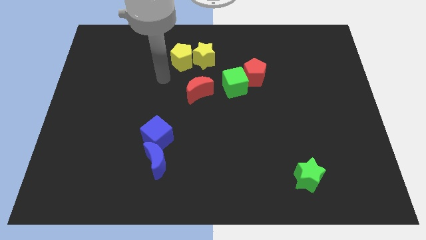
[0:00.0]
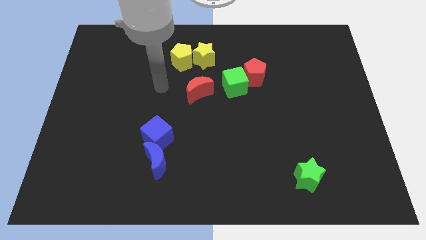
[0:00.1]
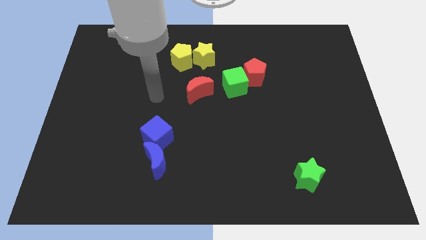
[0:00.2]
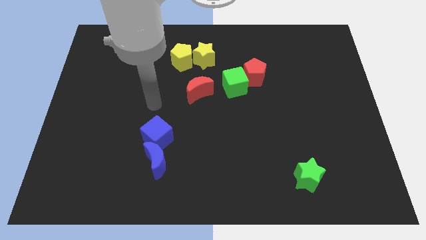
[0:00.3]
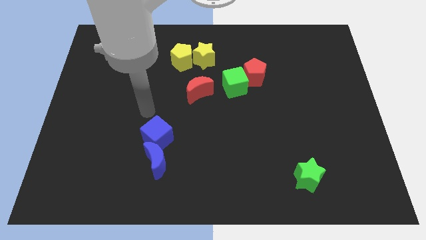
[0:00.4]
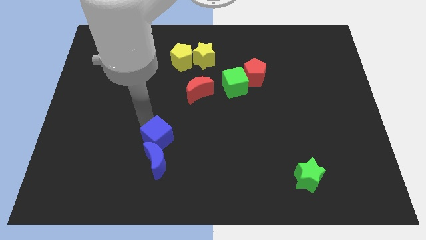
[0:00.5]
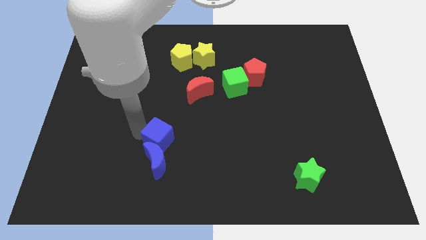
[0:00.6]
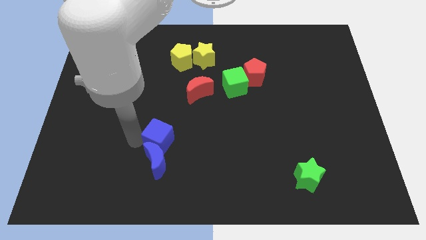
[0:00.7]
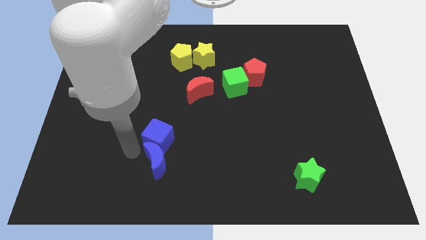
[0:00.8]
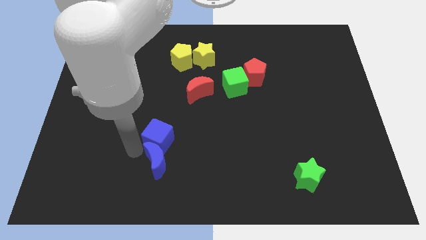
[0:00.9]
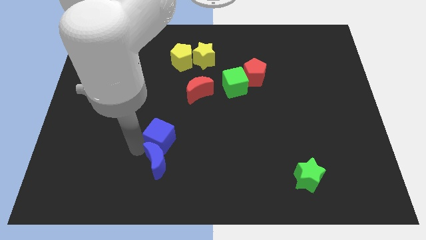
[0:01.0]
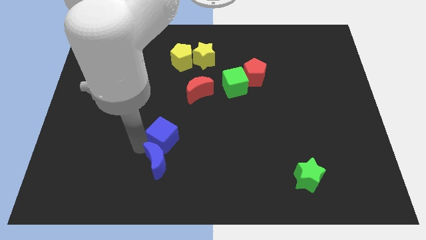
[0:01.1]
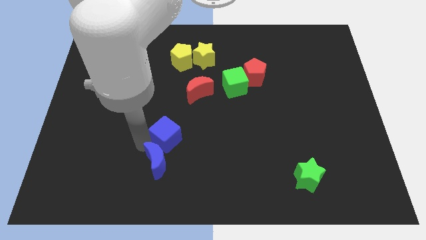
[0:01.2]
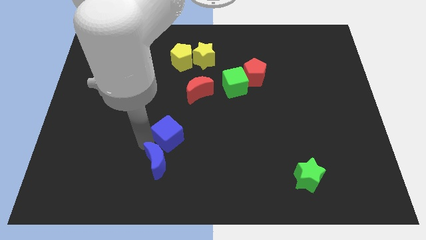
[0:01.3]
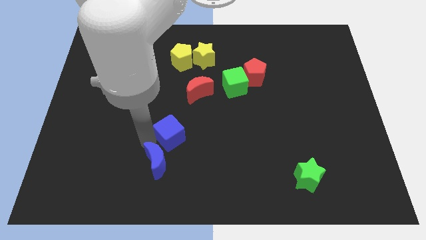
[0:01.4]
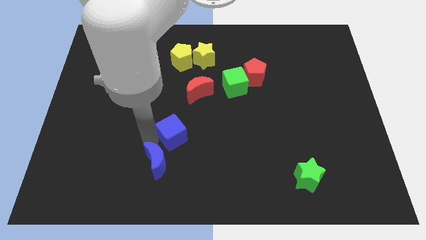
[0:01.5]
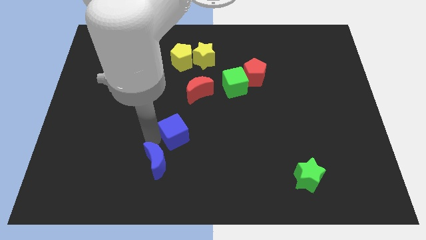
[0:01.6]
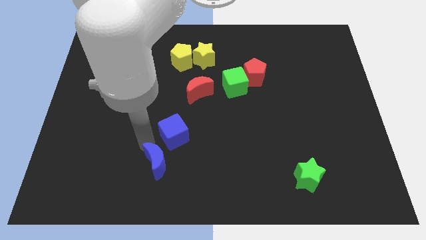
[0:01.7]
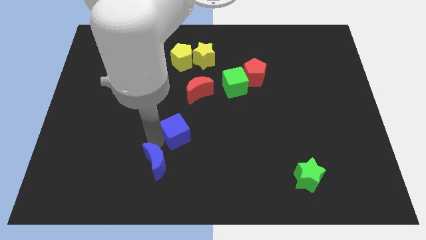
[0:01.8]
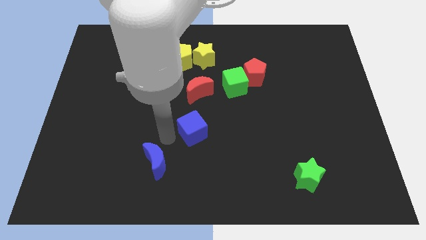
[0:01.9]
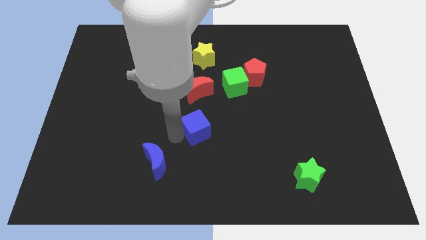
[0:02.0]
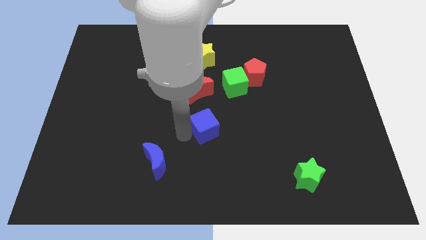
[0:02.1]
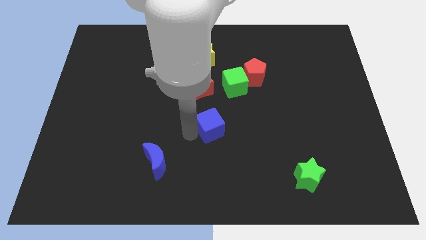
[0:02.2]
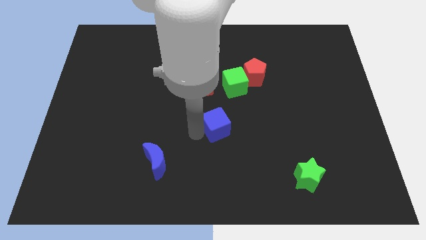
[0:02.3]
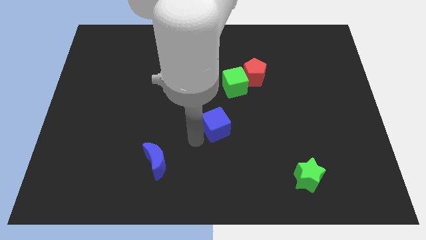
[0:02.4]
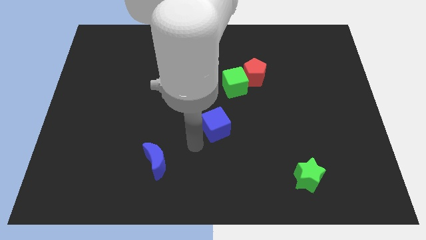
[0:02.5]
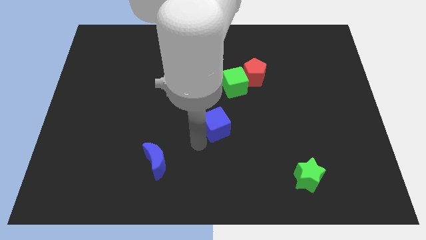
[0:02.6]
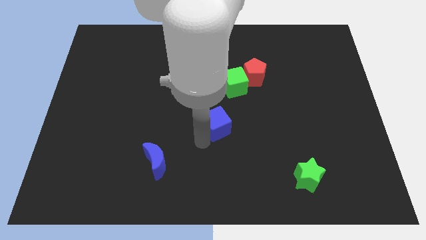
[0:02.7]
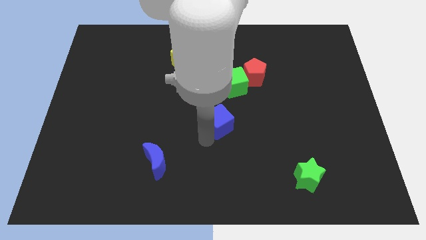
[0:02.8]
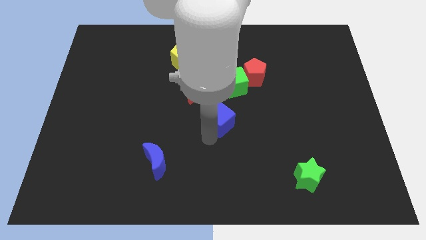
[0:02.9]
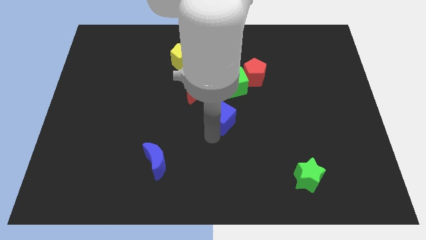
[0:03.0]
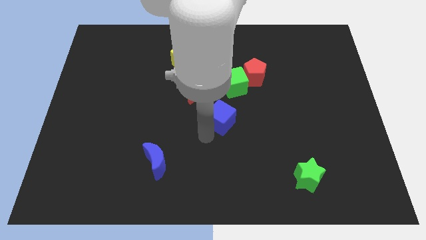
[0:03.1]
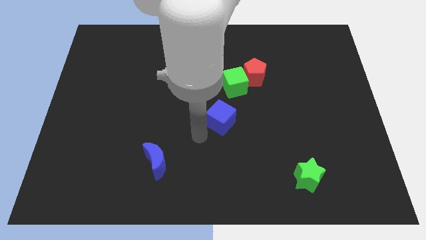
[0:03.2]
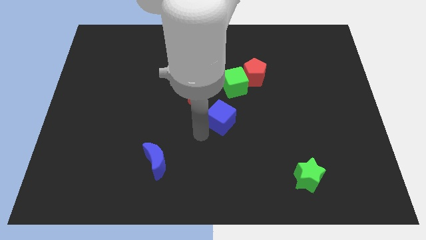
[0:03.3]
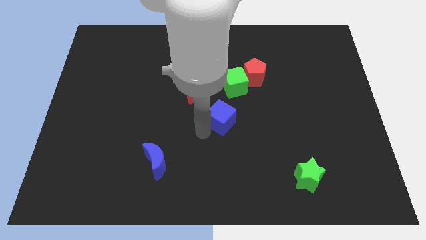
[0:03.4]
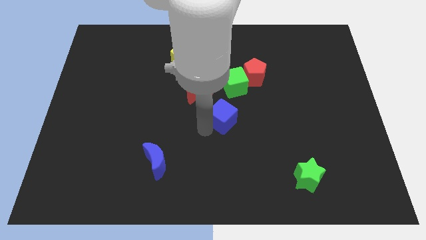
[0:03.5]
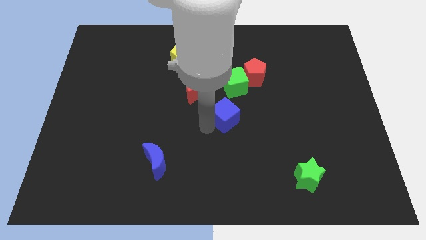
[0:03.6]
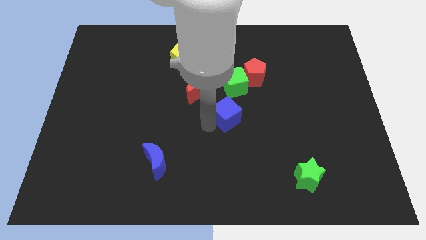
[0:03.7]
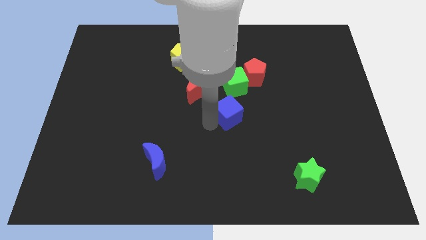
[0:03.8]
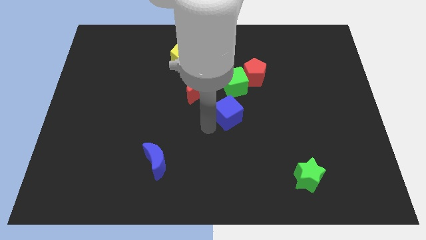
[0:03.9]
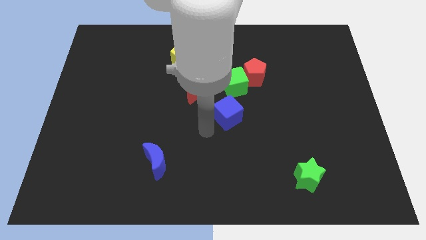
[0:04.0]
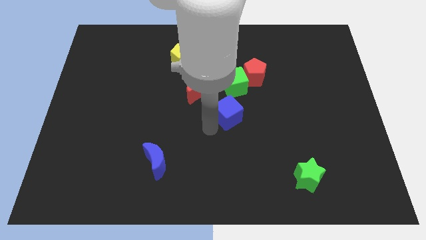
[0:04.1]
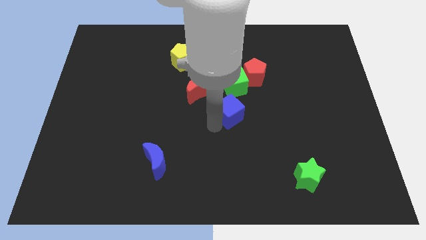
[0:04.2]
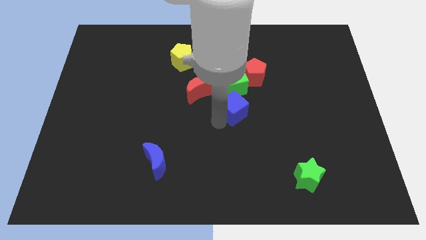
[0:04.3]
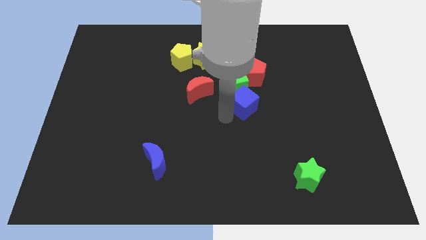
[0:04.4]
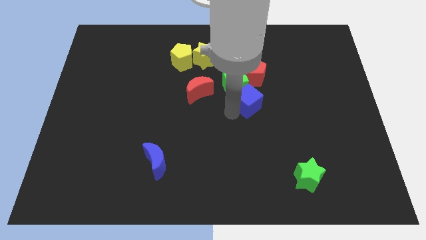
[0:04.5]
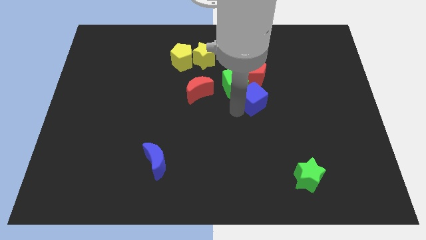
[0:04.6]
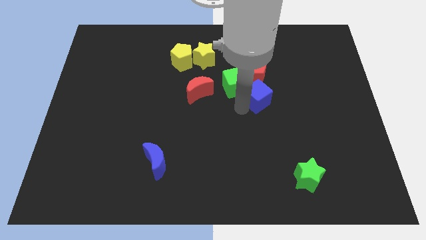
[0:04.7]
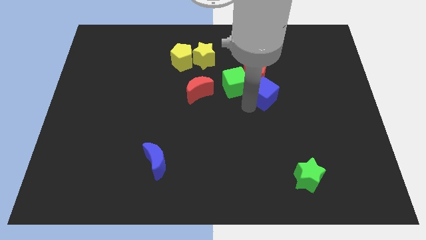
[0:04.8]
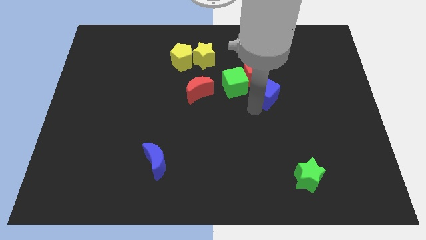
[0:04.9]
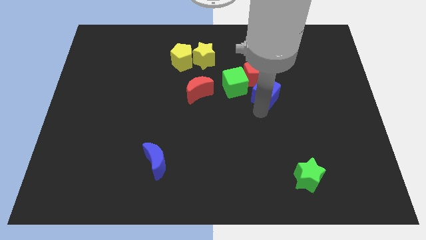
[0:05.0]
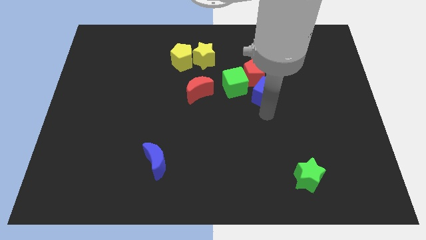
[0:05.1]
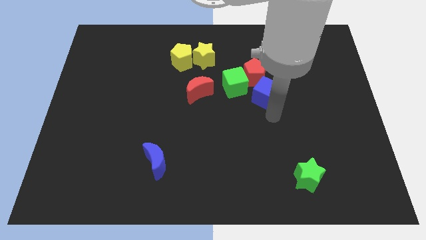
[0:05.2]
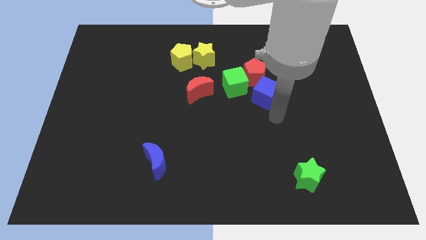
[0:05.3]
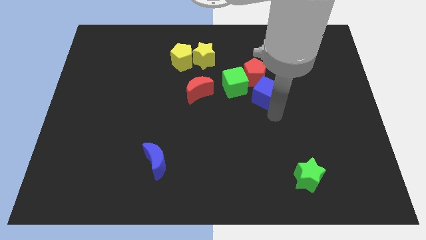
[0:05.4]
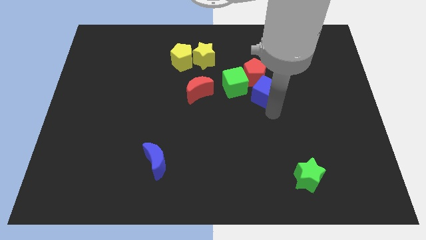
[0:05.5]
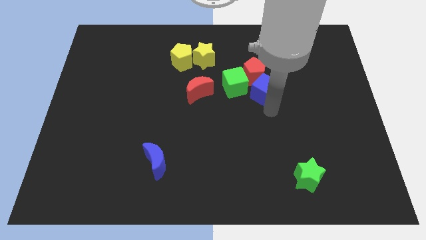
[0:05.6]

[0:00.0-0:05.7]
slide the blue cube next to the red pentagon
